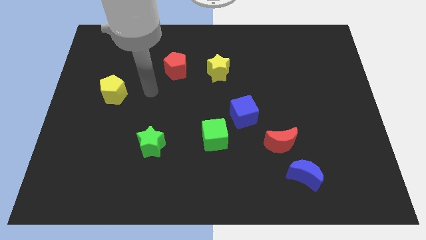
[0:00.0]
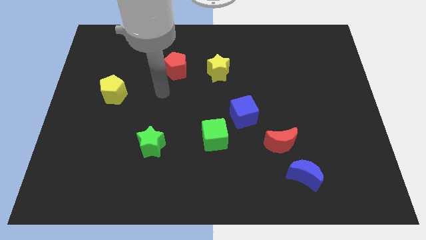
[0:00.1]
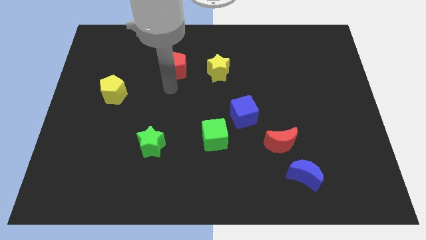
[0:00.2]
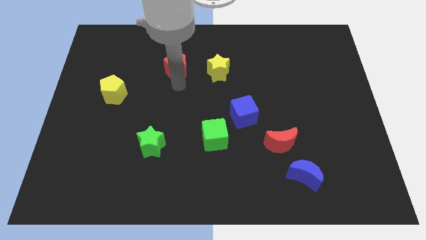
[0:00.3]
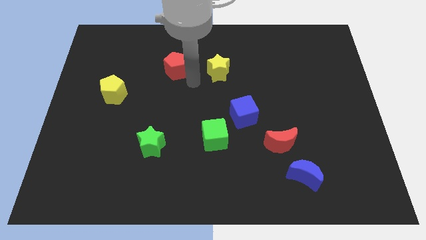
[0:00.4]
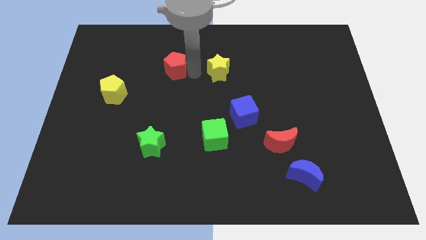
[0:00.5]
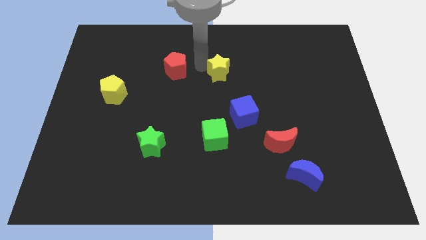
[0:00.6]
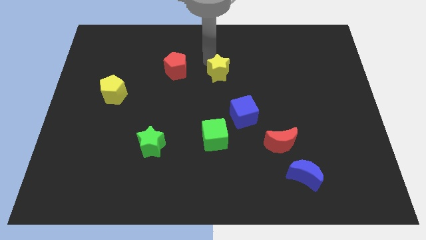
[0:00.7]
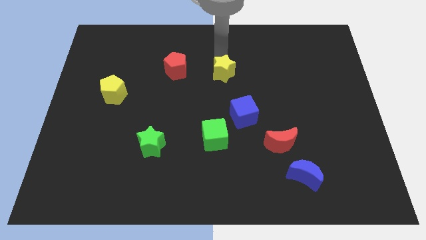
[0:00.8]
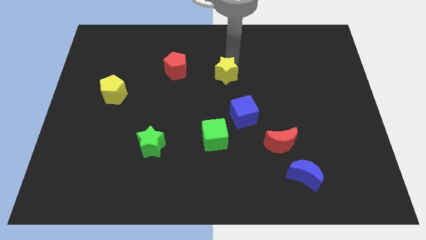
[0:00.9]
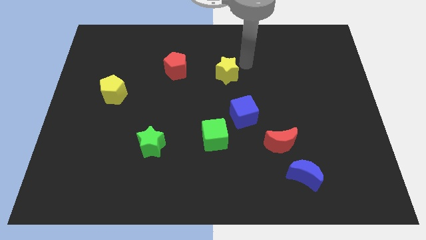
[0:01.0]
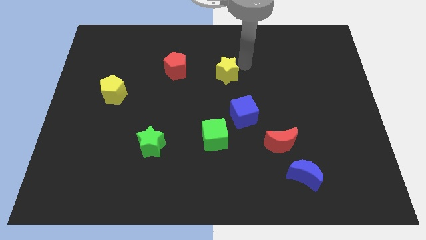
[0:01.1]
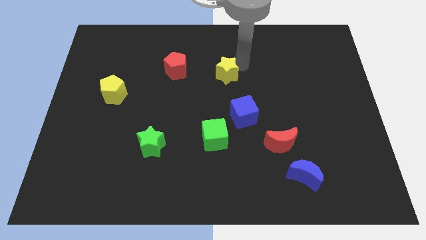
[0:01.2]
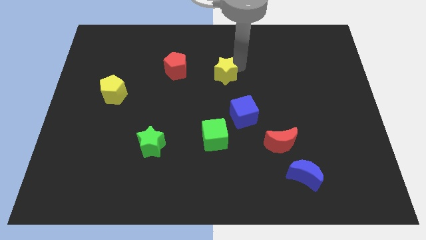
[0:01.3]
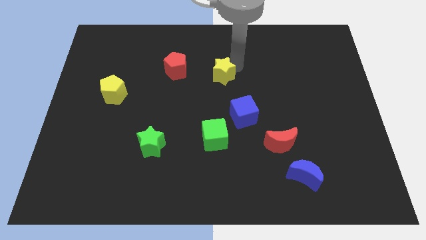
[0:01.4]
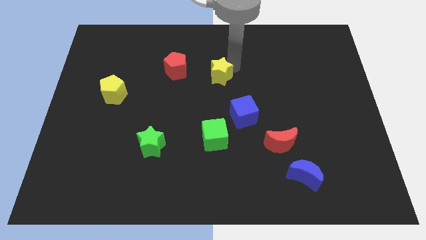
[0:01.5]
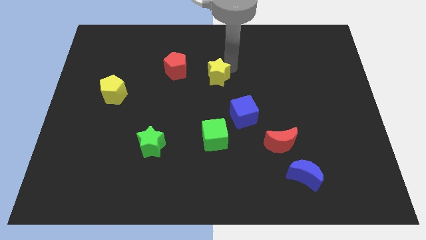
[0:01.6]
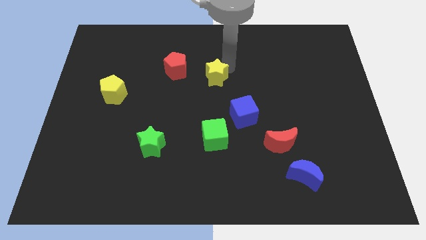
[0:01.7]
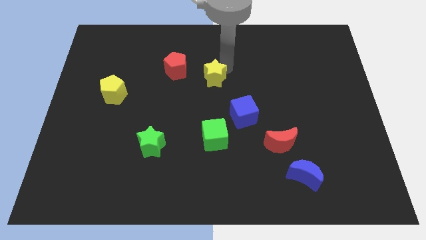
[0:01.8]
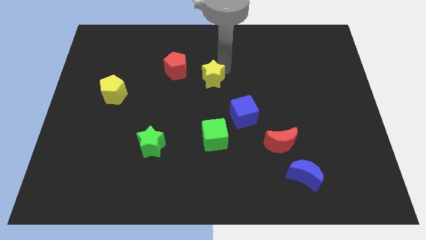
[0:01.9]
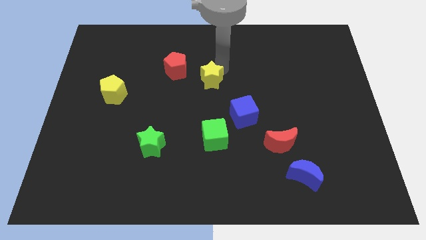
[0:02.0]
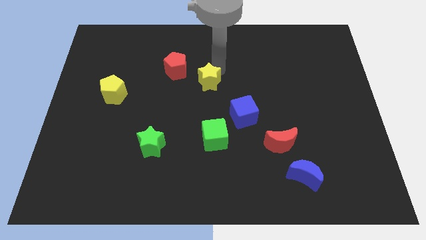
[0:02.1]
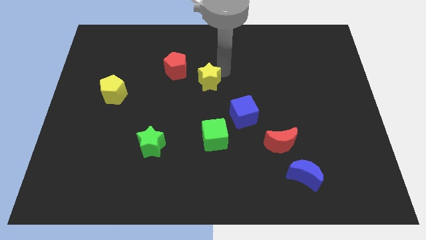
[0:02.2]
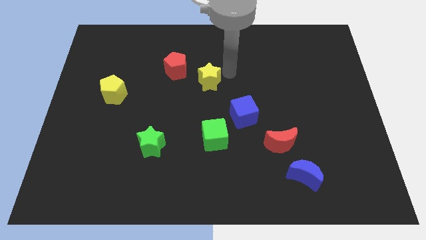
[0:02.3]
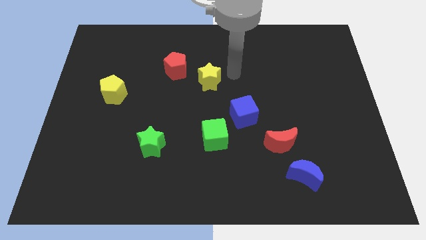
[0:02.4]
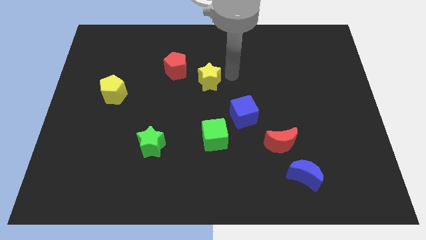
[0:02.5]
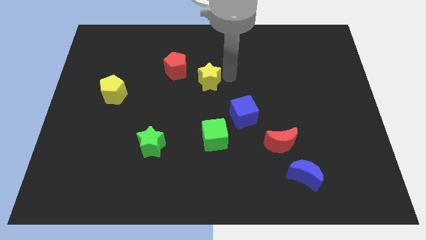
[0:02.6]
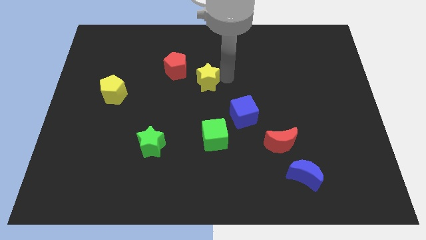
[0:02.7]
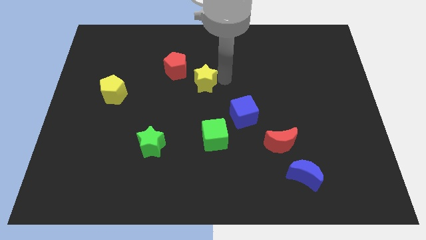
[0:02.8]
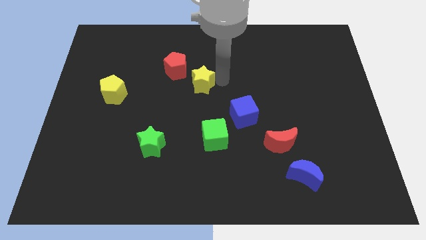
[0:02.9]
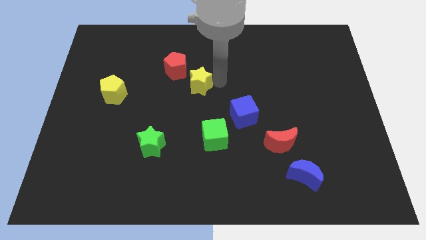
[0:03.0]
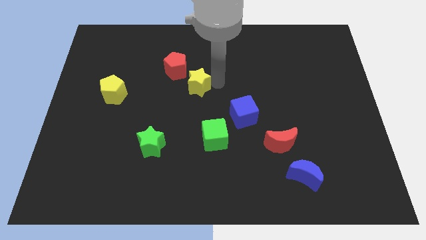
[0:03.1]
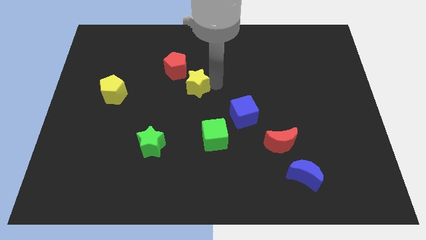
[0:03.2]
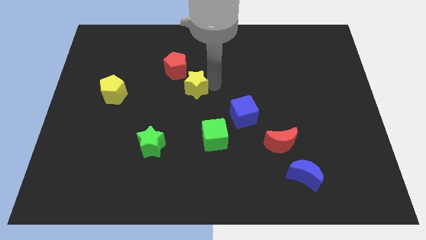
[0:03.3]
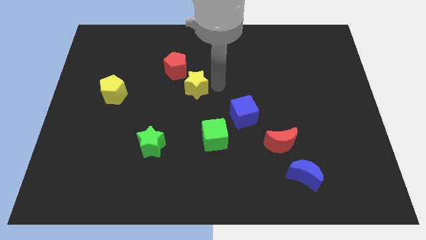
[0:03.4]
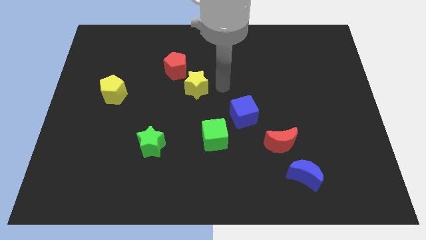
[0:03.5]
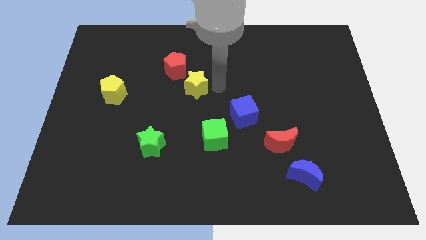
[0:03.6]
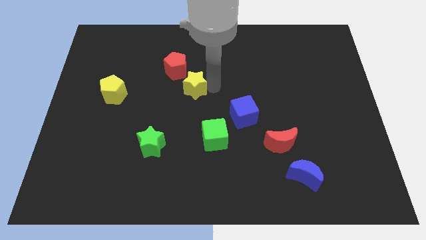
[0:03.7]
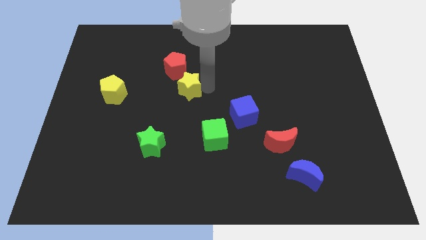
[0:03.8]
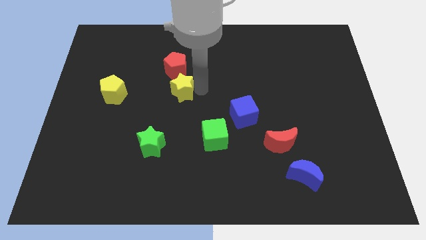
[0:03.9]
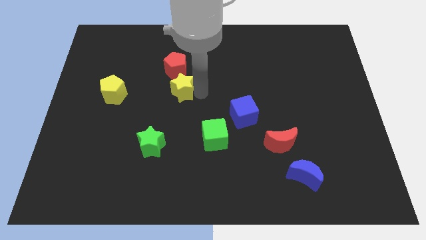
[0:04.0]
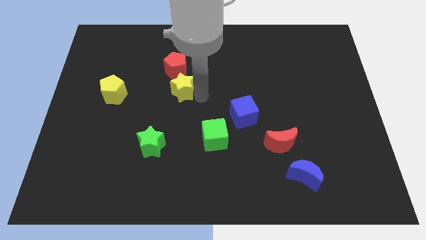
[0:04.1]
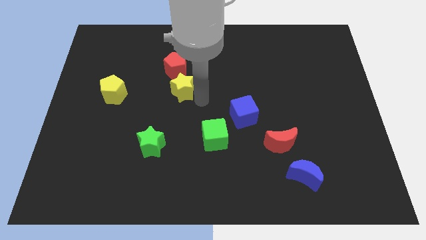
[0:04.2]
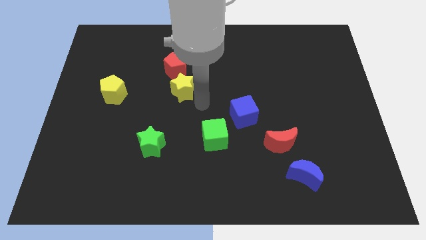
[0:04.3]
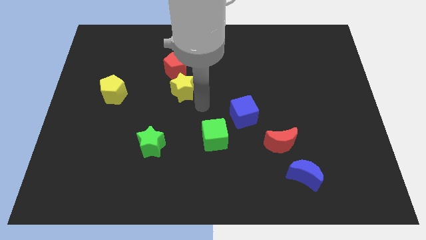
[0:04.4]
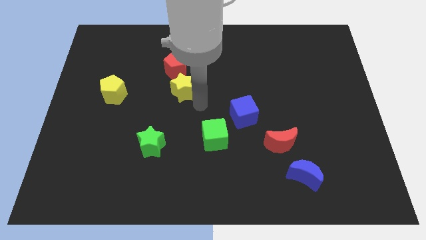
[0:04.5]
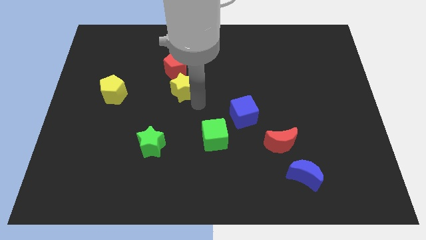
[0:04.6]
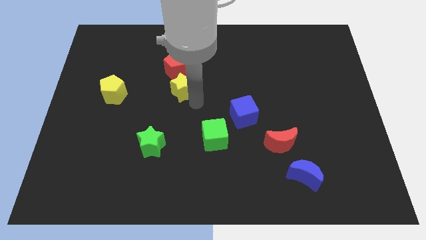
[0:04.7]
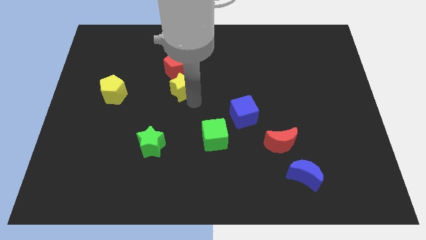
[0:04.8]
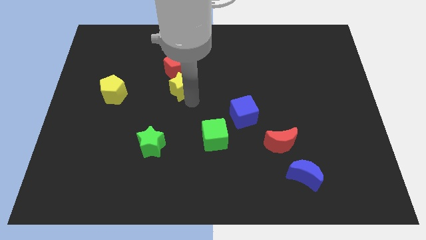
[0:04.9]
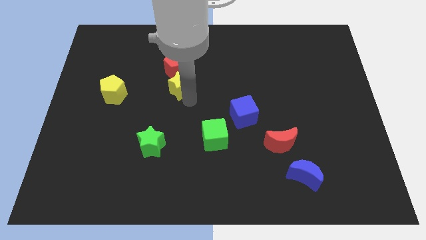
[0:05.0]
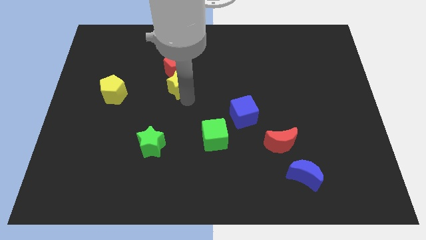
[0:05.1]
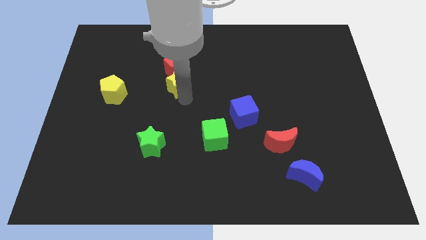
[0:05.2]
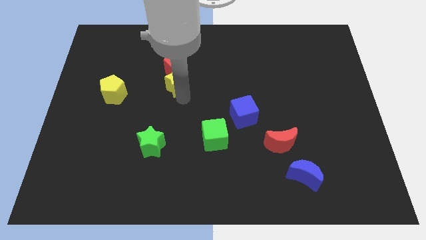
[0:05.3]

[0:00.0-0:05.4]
slide the yellow star to the bottom left of the red pentagon

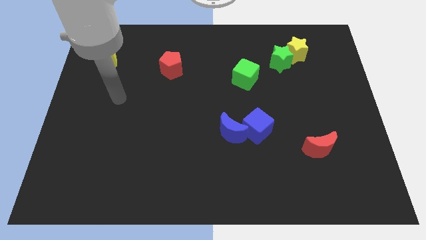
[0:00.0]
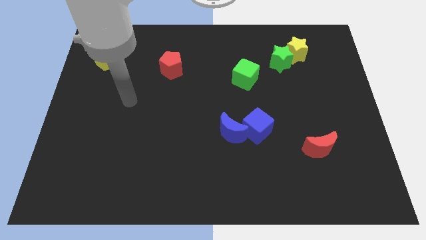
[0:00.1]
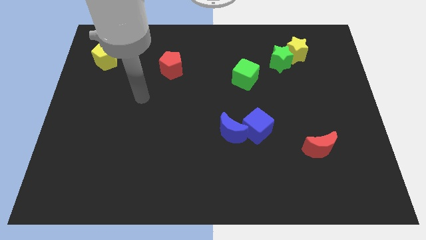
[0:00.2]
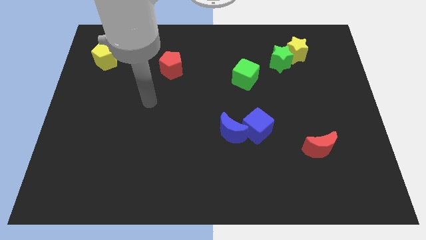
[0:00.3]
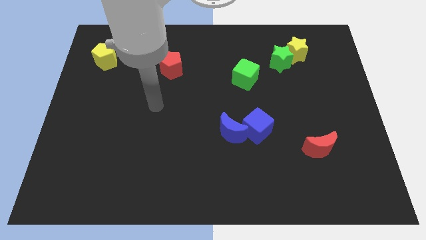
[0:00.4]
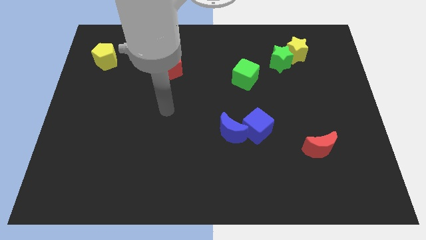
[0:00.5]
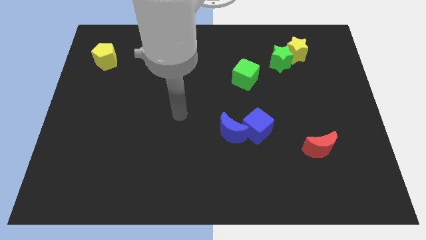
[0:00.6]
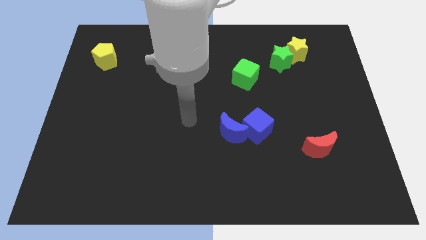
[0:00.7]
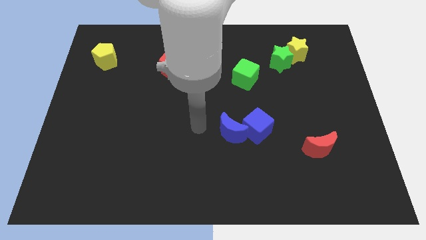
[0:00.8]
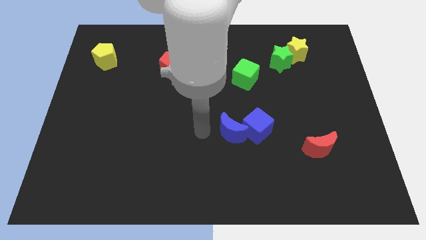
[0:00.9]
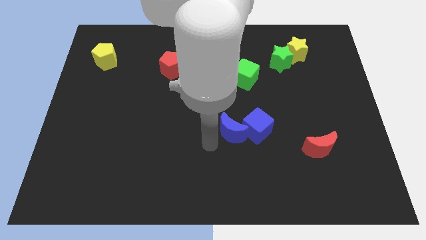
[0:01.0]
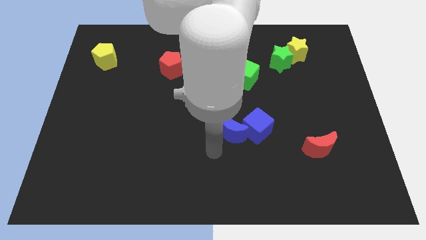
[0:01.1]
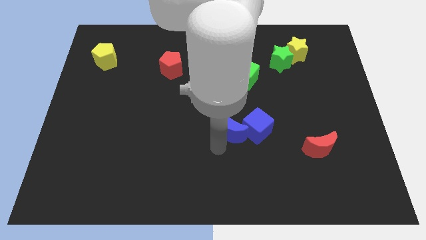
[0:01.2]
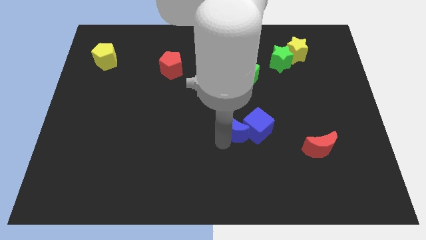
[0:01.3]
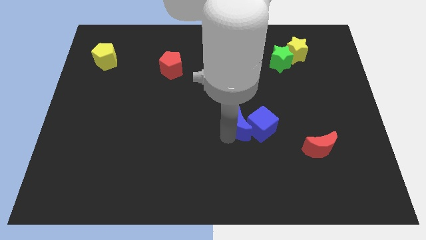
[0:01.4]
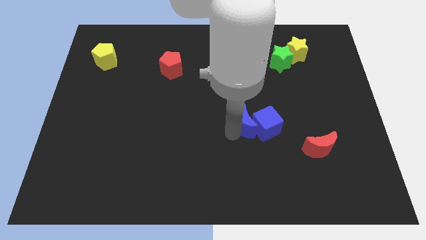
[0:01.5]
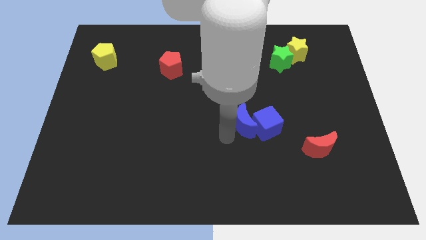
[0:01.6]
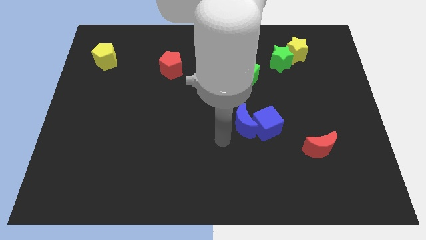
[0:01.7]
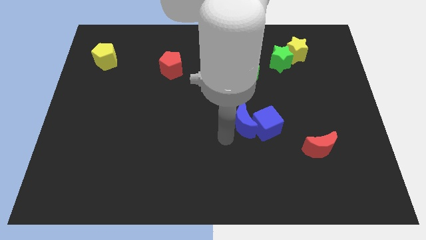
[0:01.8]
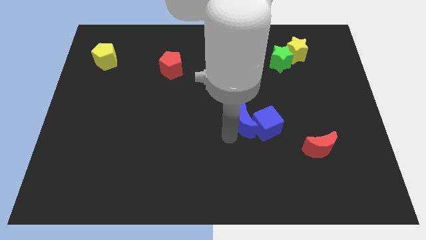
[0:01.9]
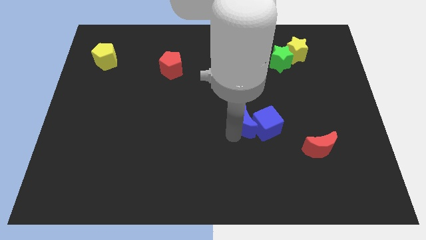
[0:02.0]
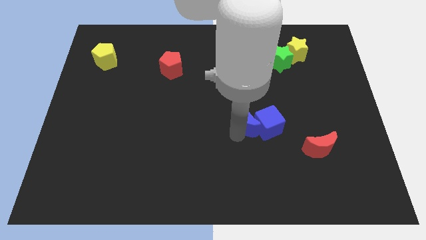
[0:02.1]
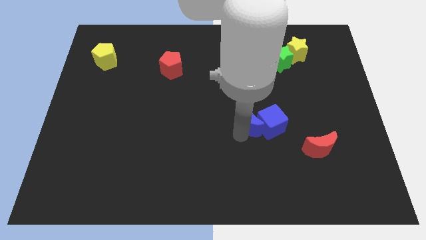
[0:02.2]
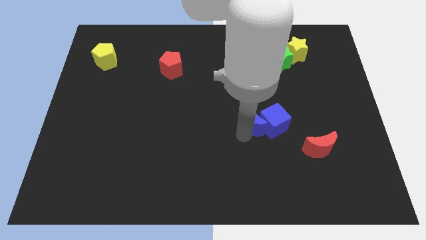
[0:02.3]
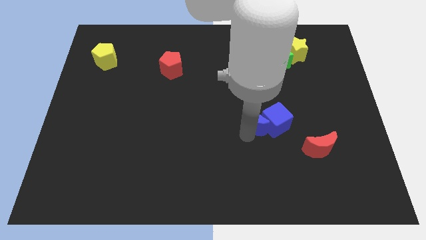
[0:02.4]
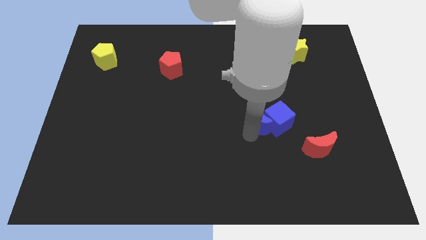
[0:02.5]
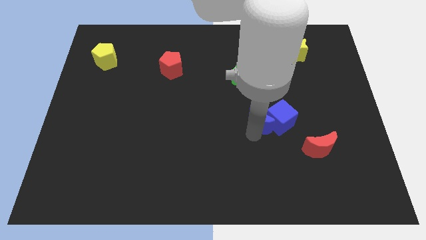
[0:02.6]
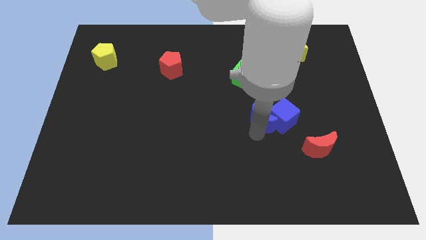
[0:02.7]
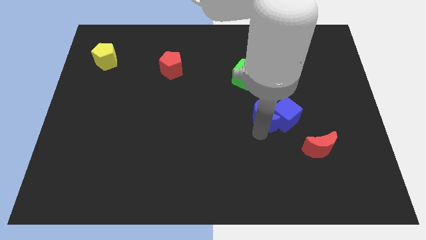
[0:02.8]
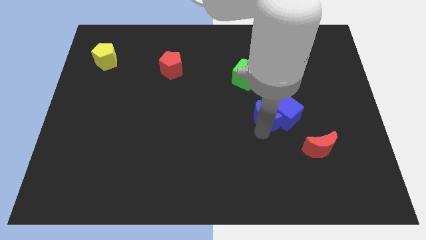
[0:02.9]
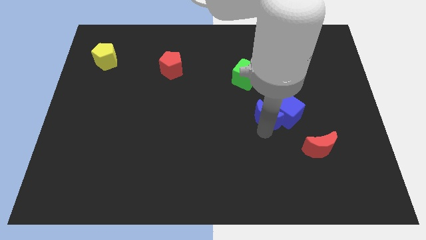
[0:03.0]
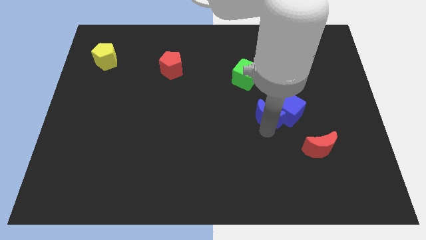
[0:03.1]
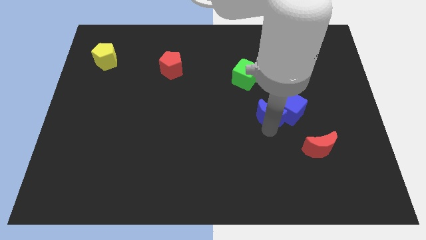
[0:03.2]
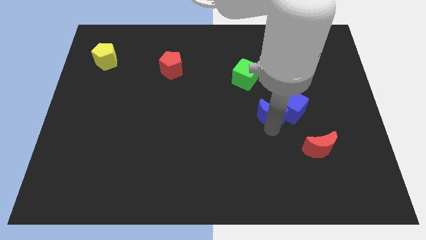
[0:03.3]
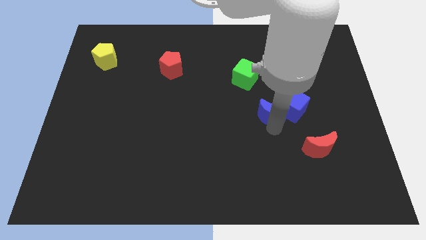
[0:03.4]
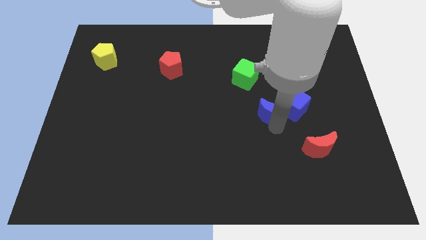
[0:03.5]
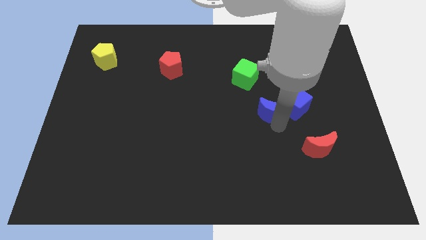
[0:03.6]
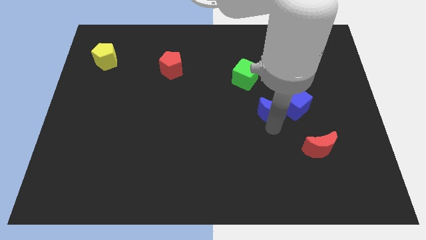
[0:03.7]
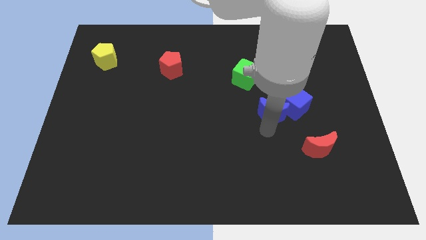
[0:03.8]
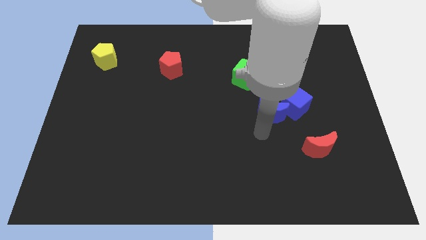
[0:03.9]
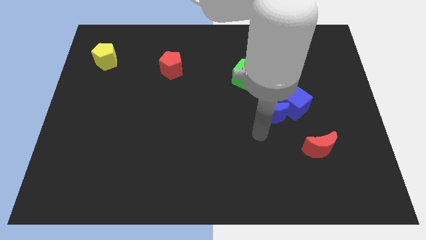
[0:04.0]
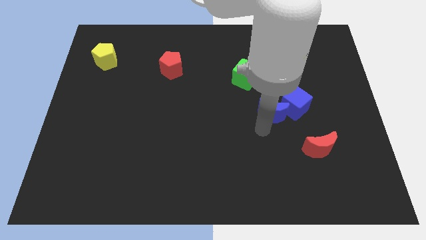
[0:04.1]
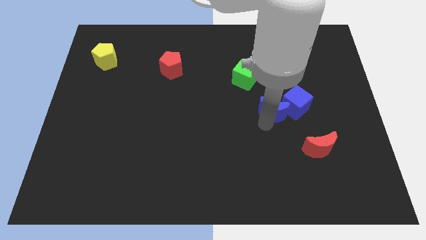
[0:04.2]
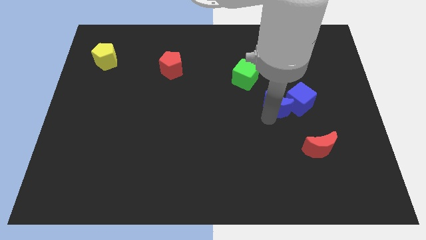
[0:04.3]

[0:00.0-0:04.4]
put the blue moon below the green star
